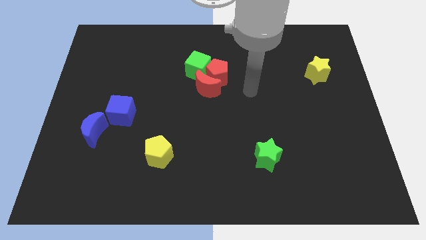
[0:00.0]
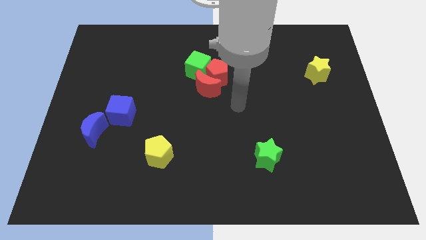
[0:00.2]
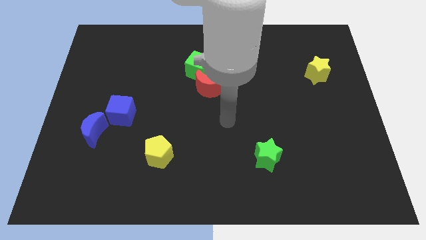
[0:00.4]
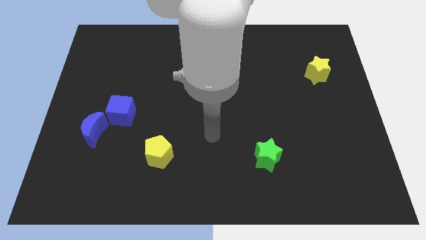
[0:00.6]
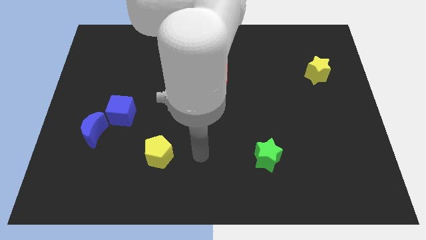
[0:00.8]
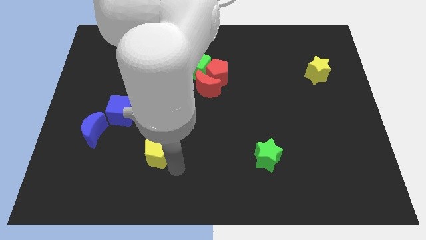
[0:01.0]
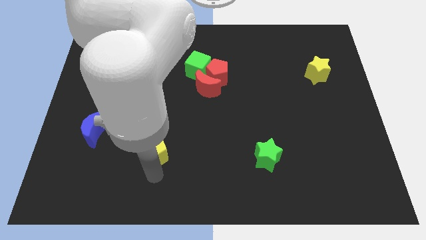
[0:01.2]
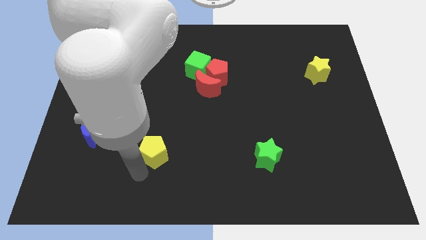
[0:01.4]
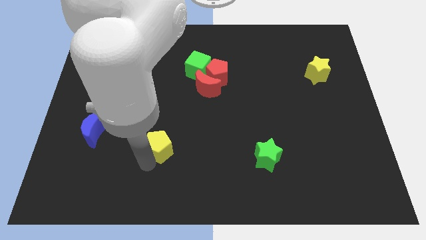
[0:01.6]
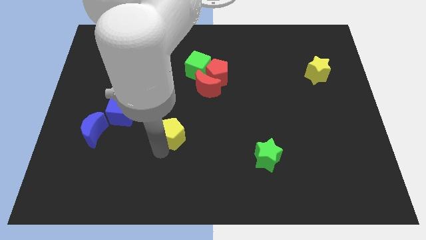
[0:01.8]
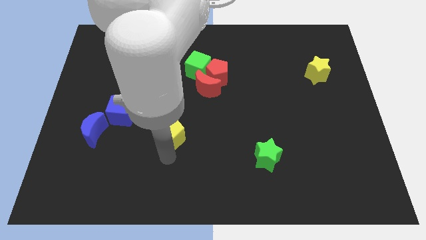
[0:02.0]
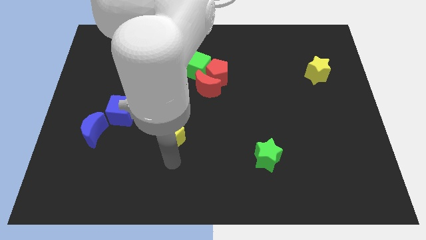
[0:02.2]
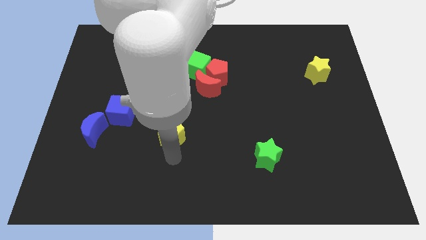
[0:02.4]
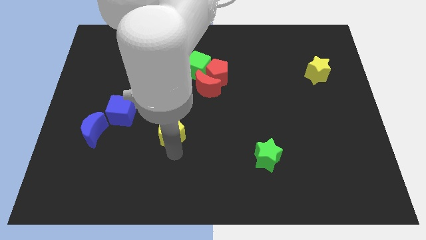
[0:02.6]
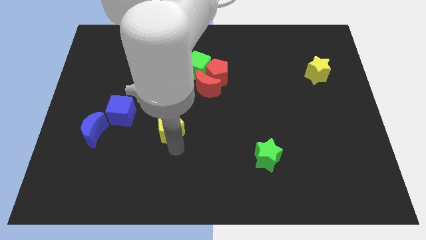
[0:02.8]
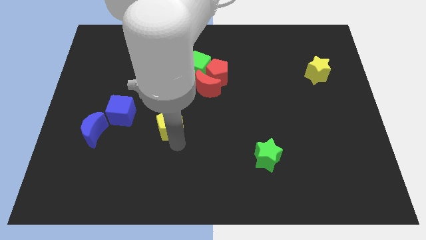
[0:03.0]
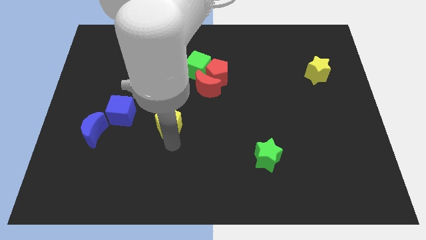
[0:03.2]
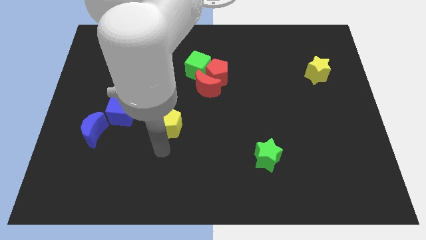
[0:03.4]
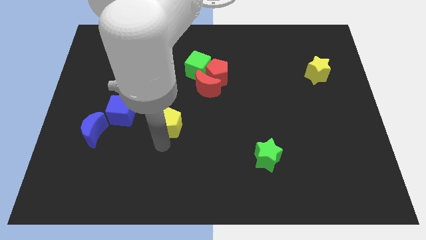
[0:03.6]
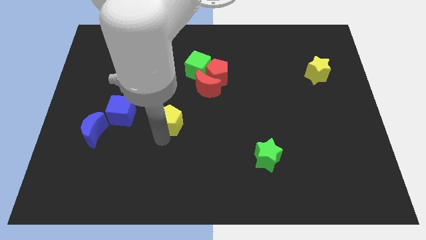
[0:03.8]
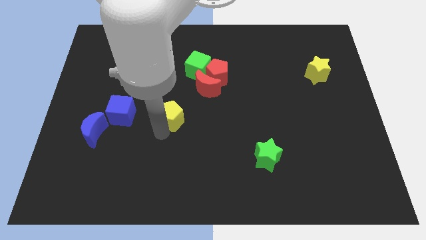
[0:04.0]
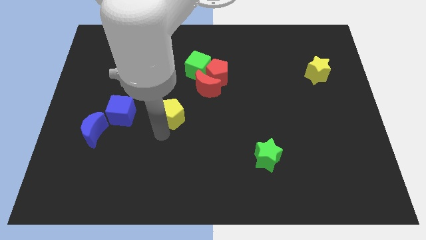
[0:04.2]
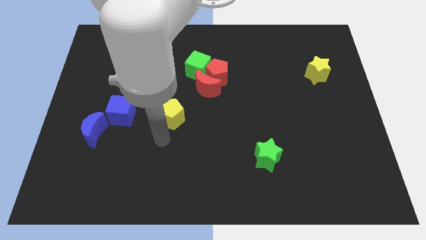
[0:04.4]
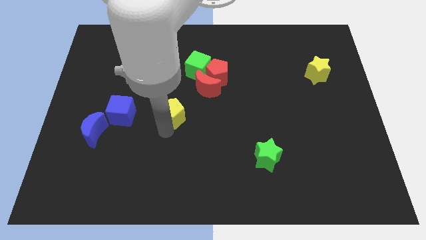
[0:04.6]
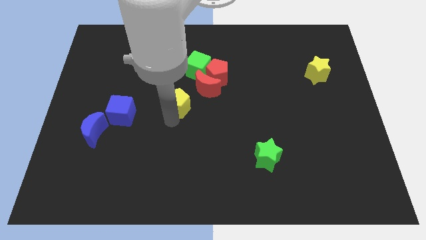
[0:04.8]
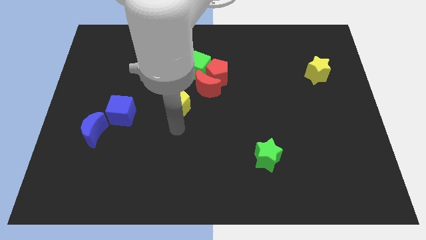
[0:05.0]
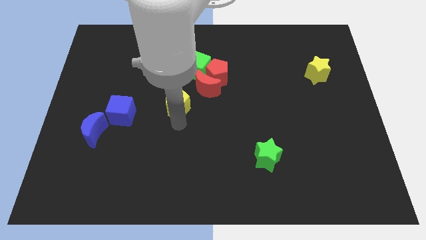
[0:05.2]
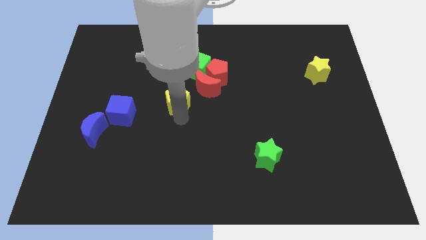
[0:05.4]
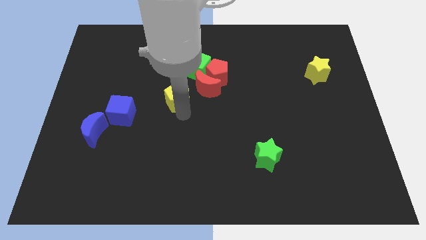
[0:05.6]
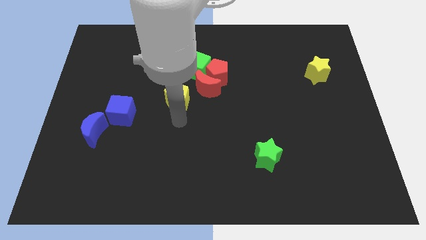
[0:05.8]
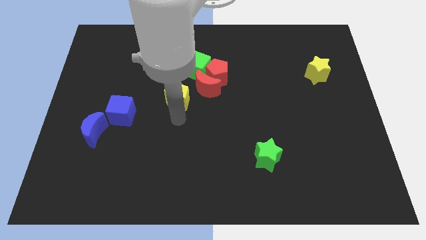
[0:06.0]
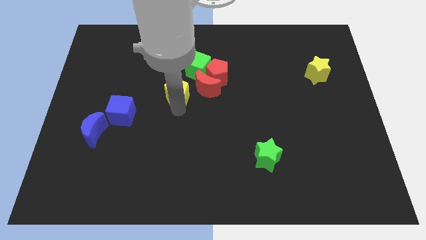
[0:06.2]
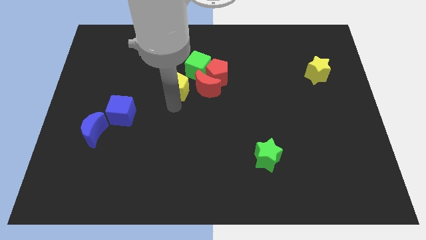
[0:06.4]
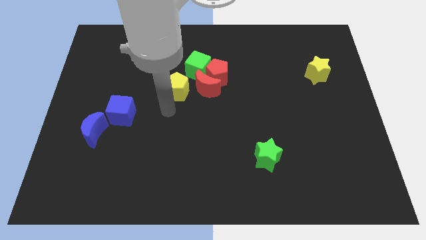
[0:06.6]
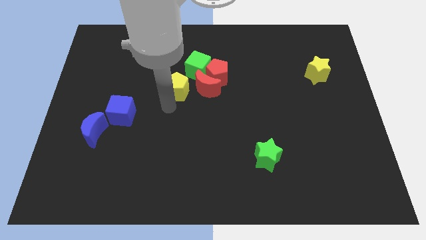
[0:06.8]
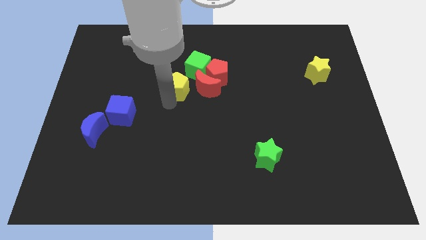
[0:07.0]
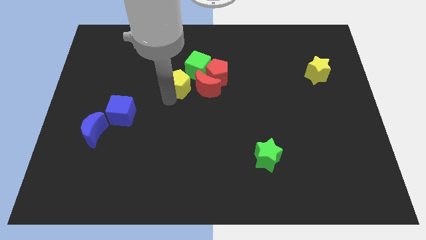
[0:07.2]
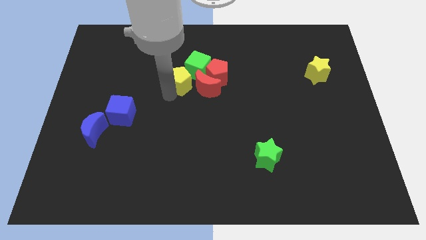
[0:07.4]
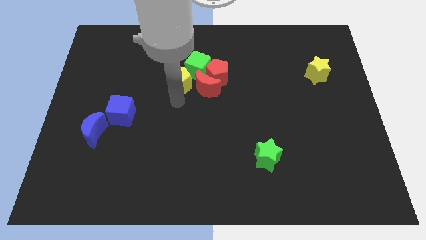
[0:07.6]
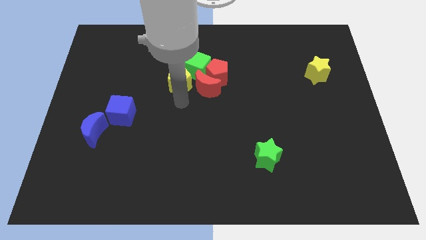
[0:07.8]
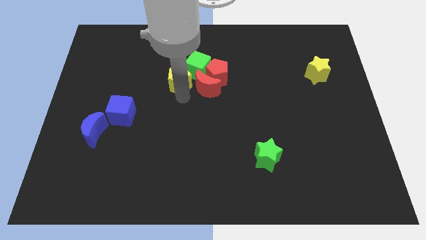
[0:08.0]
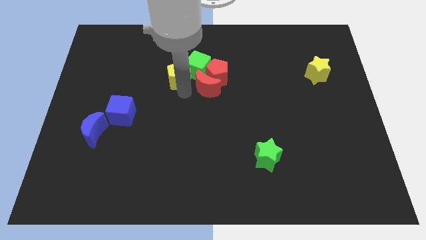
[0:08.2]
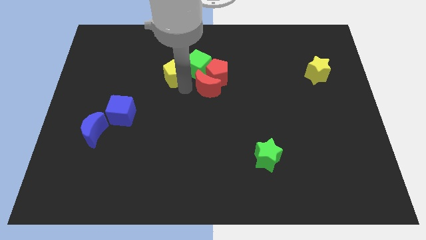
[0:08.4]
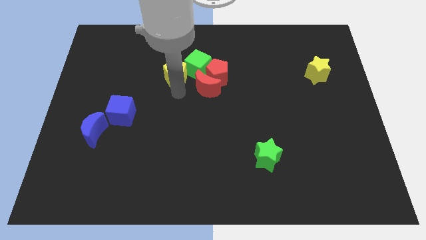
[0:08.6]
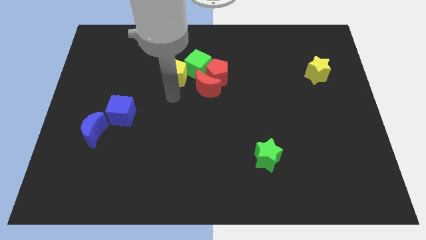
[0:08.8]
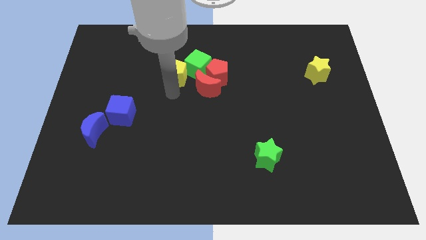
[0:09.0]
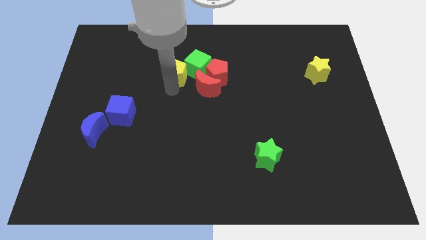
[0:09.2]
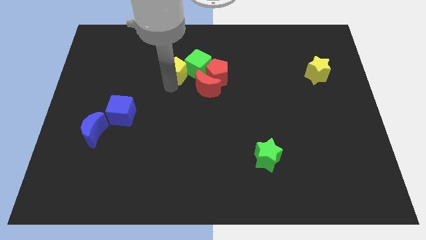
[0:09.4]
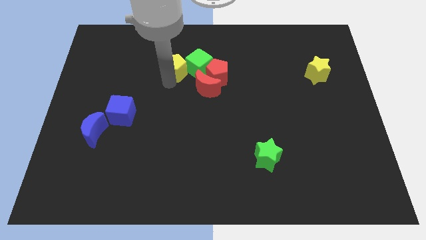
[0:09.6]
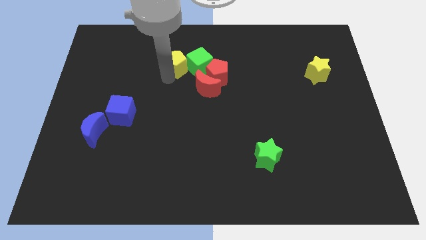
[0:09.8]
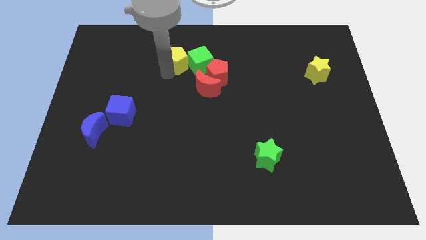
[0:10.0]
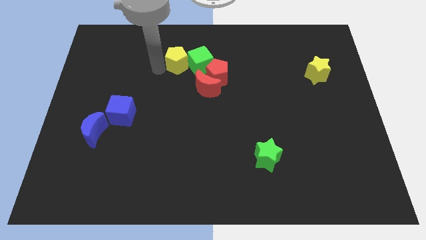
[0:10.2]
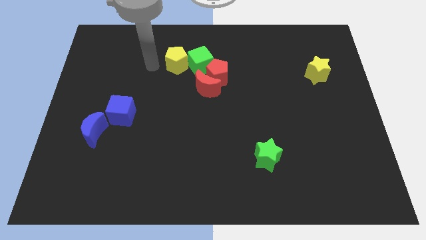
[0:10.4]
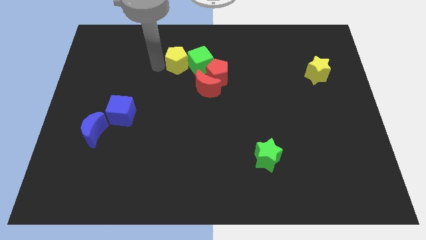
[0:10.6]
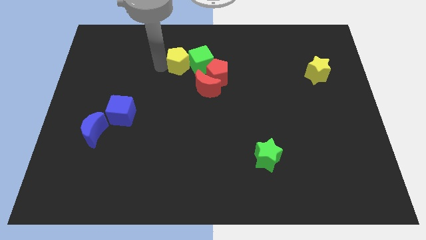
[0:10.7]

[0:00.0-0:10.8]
push the yellow pentagon diagonally up and to the left of the red pentagon

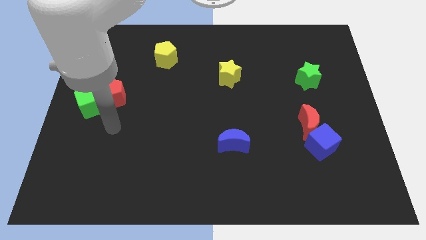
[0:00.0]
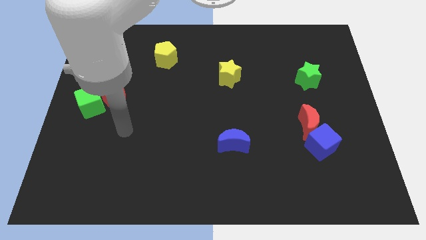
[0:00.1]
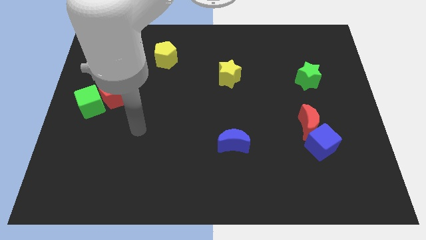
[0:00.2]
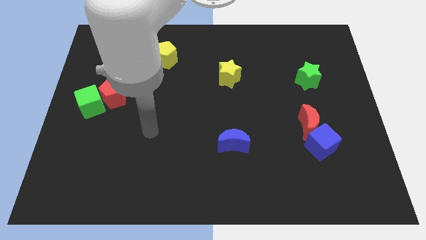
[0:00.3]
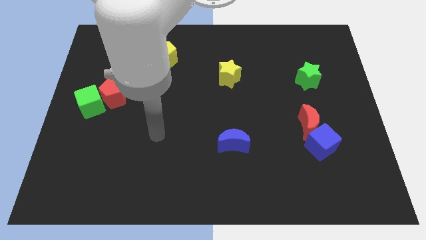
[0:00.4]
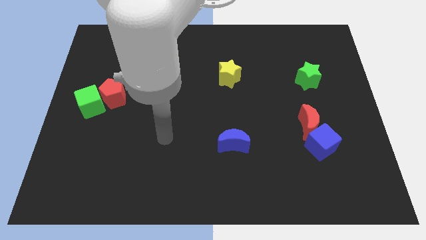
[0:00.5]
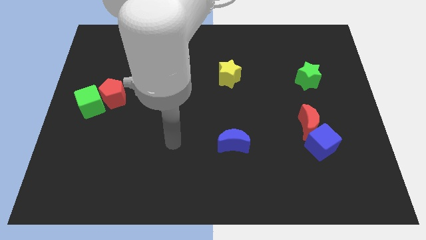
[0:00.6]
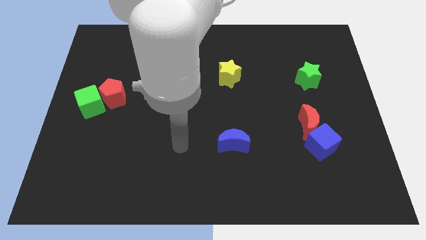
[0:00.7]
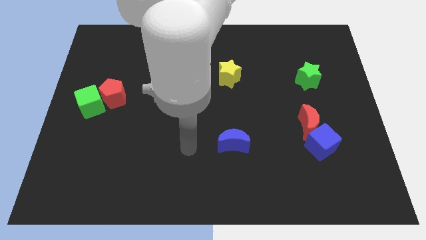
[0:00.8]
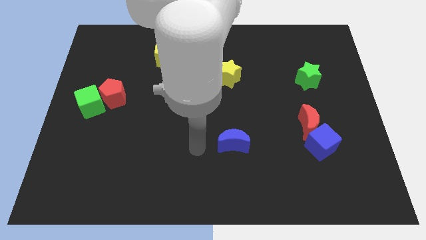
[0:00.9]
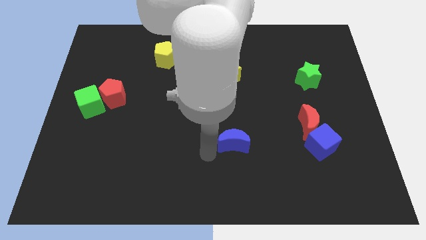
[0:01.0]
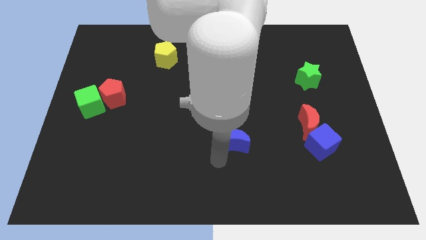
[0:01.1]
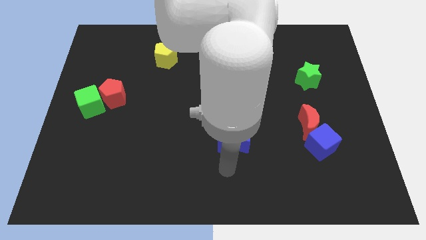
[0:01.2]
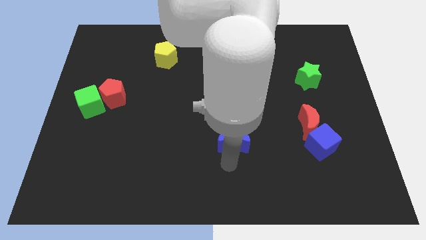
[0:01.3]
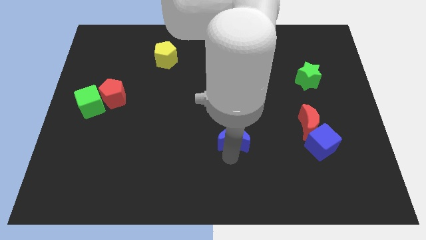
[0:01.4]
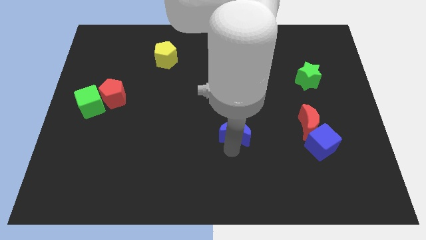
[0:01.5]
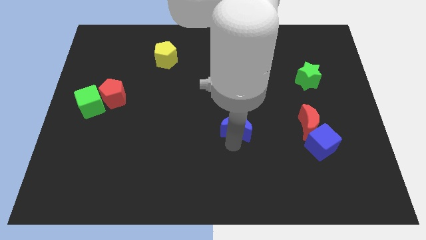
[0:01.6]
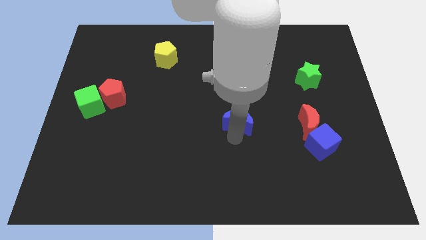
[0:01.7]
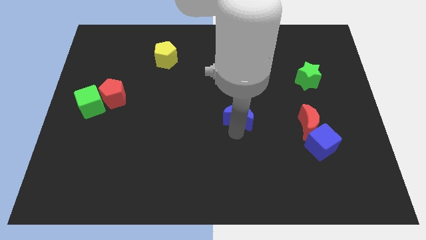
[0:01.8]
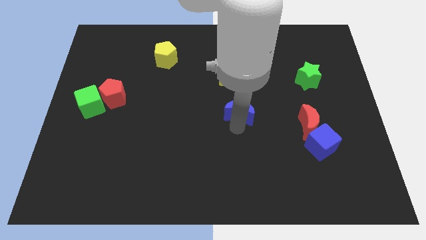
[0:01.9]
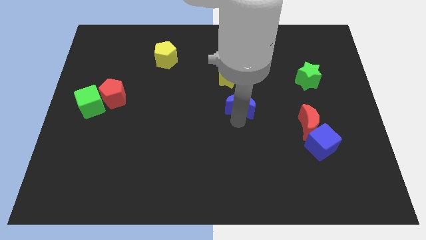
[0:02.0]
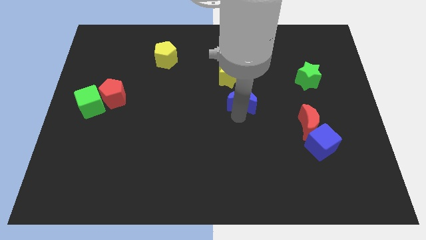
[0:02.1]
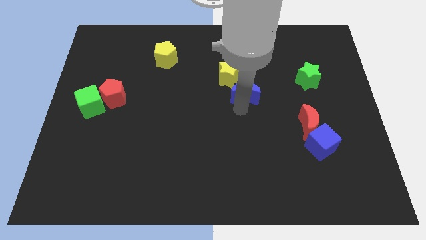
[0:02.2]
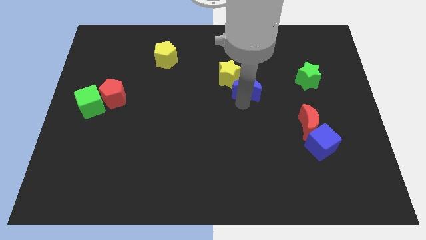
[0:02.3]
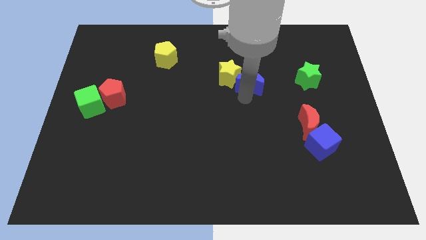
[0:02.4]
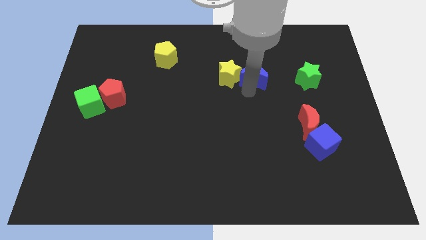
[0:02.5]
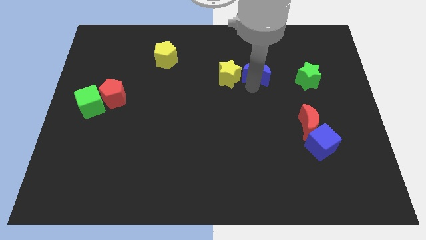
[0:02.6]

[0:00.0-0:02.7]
push the blue moon diagonally up and to the right of the yellow star
